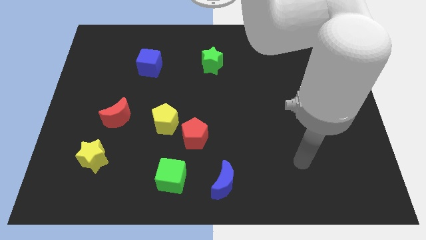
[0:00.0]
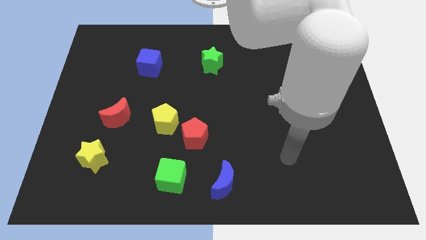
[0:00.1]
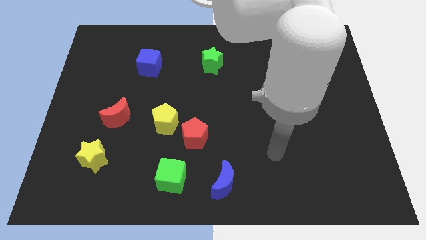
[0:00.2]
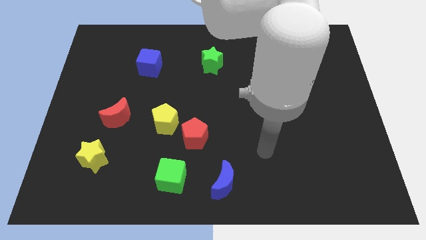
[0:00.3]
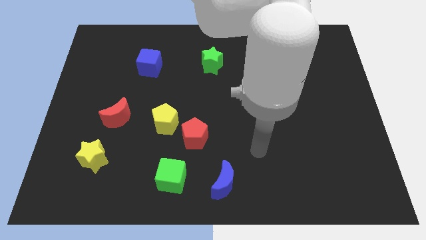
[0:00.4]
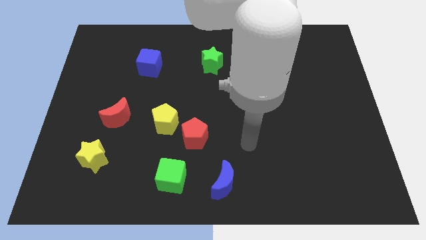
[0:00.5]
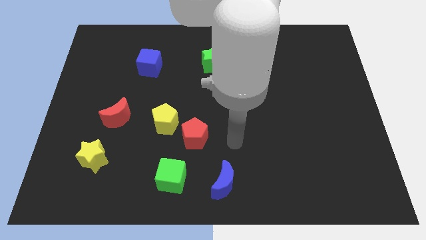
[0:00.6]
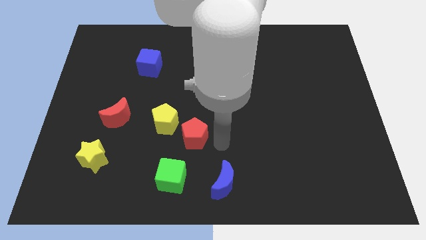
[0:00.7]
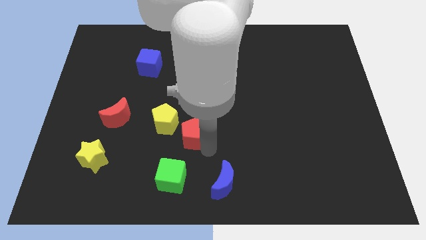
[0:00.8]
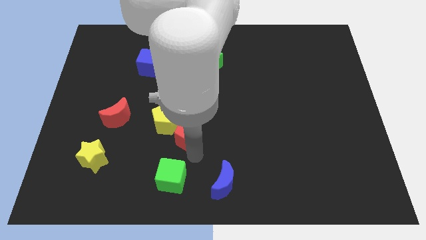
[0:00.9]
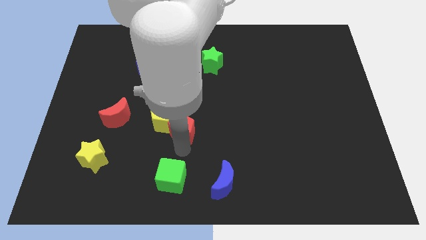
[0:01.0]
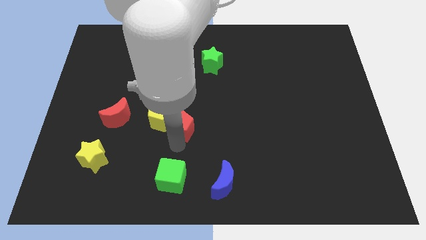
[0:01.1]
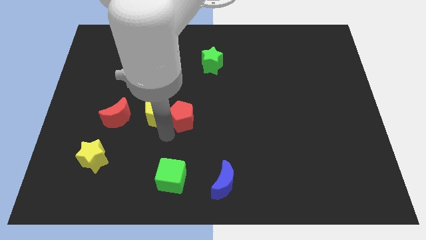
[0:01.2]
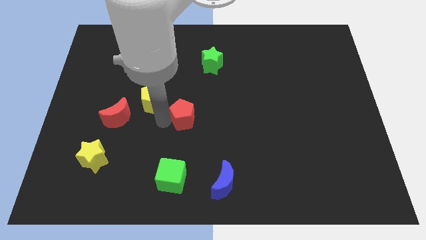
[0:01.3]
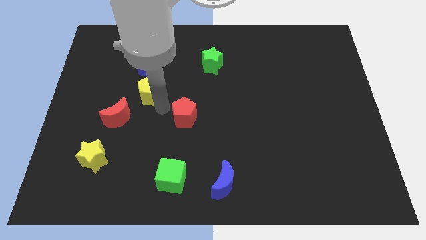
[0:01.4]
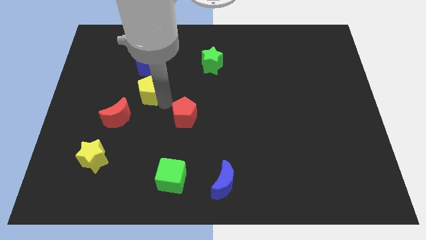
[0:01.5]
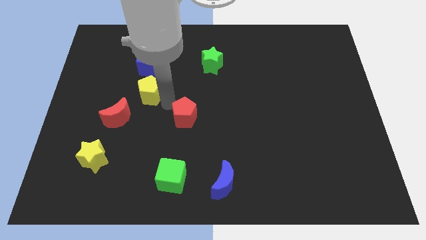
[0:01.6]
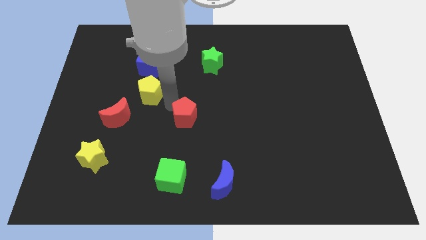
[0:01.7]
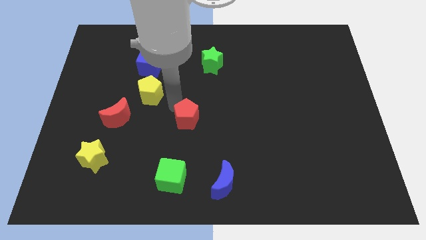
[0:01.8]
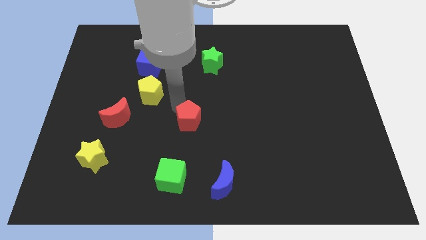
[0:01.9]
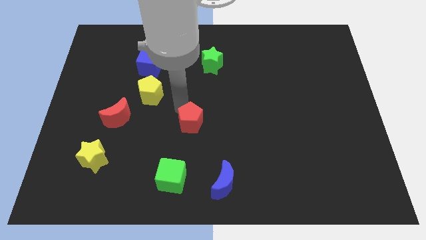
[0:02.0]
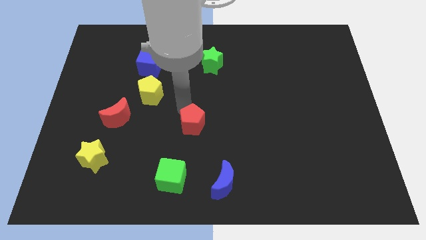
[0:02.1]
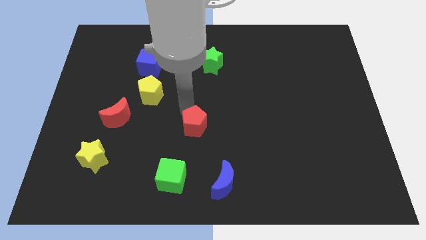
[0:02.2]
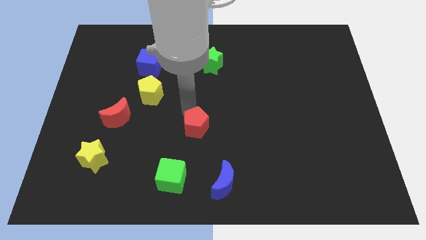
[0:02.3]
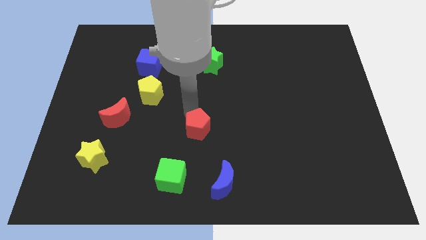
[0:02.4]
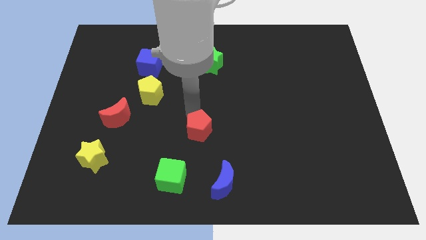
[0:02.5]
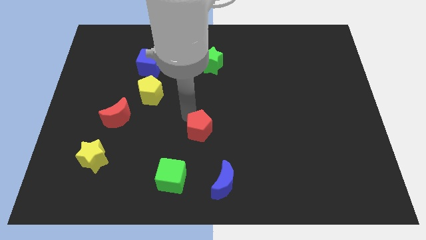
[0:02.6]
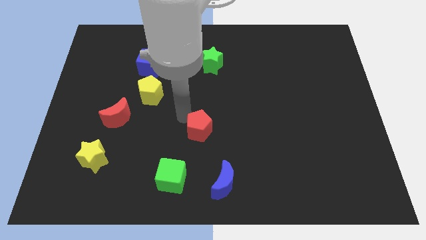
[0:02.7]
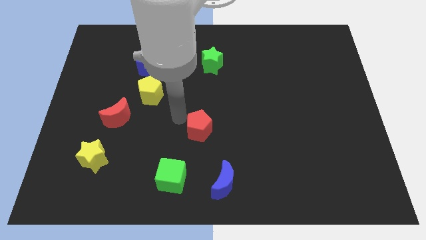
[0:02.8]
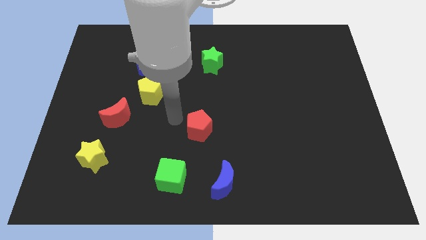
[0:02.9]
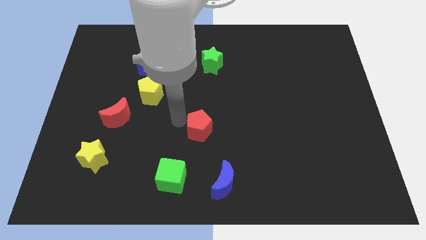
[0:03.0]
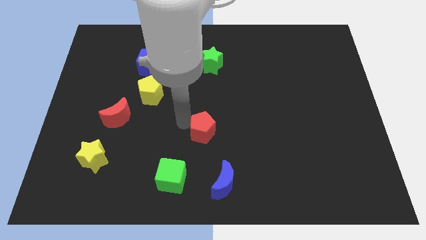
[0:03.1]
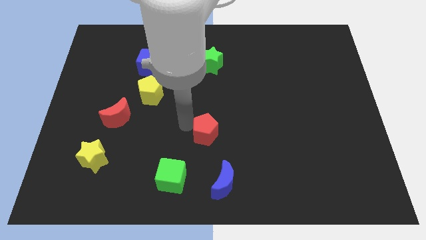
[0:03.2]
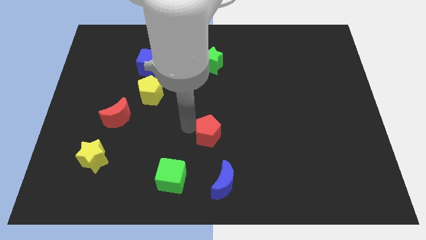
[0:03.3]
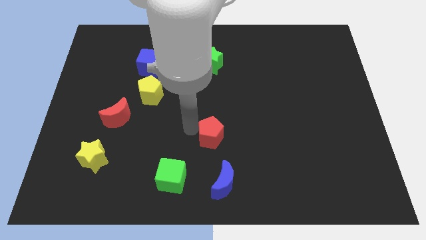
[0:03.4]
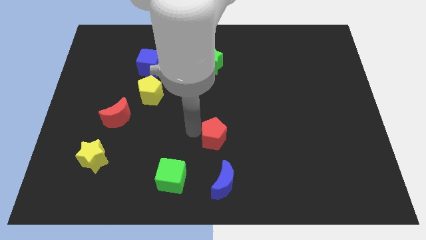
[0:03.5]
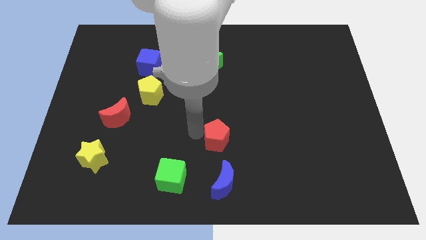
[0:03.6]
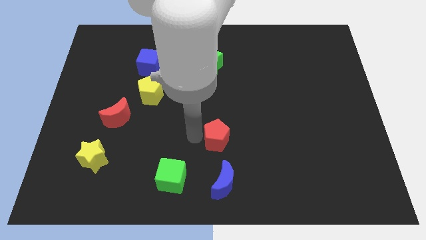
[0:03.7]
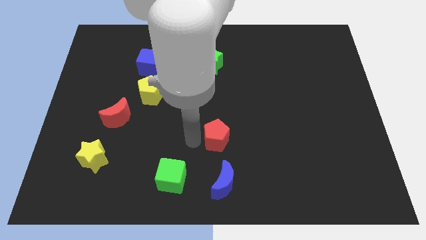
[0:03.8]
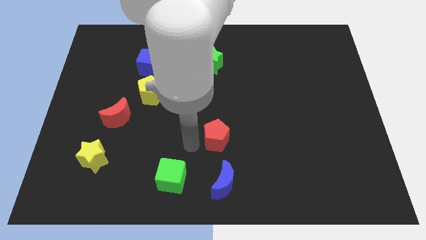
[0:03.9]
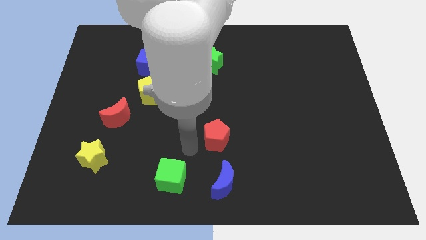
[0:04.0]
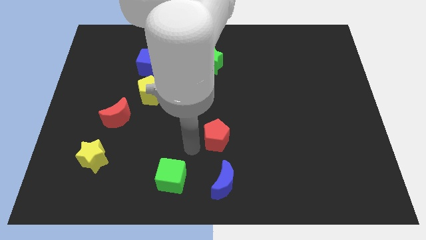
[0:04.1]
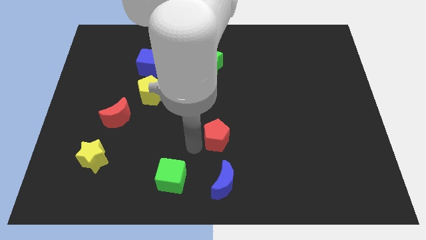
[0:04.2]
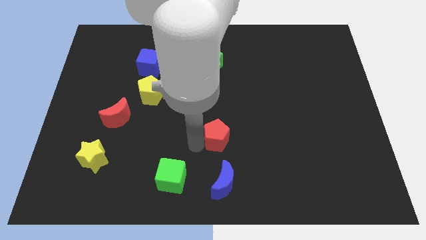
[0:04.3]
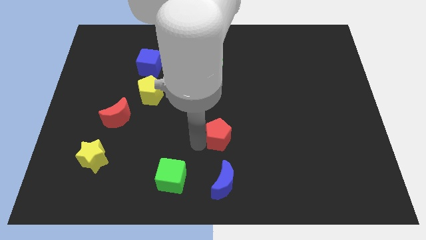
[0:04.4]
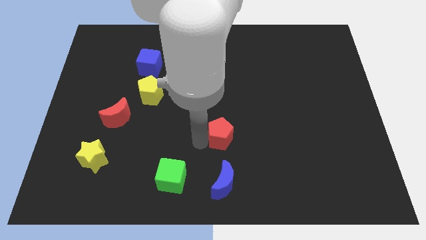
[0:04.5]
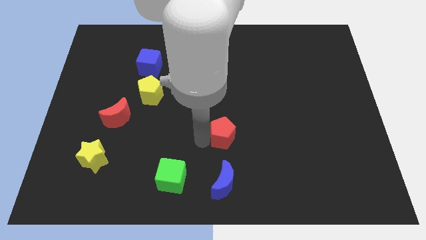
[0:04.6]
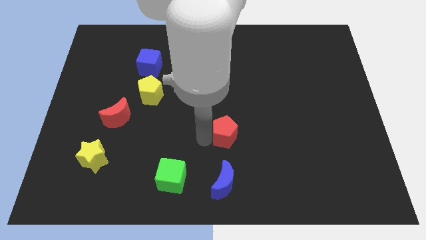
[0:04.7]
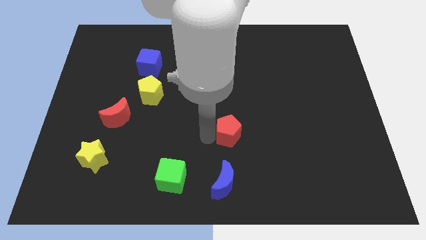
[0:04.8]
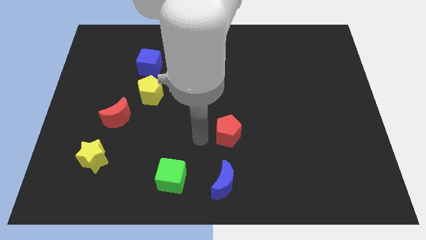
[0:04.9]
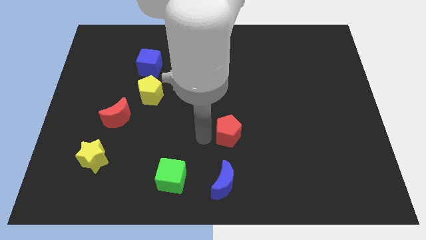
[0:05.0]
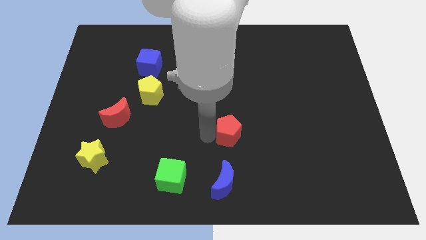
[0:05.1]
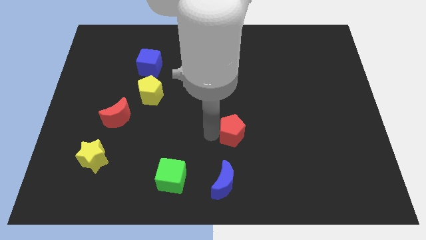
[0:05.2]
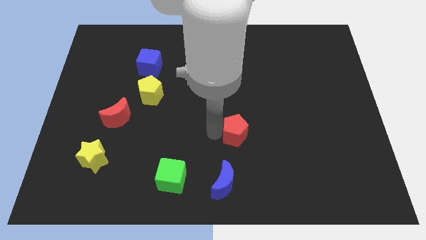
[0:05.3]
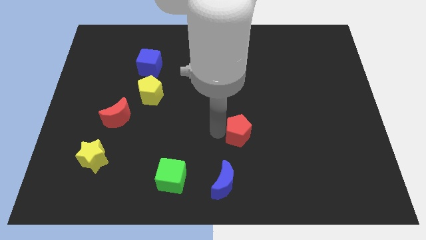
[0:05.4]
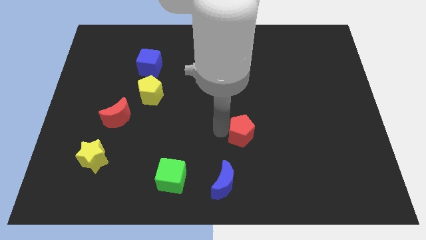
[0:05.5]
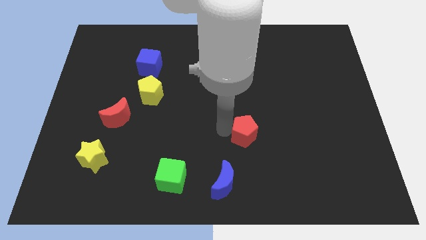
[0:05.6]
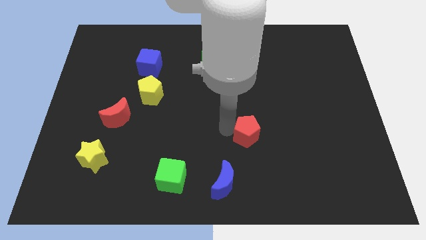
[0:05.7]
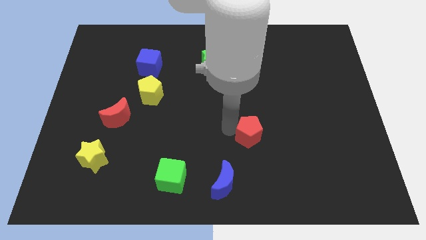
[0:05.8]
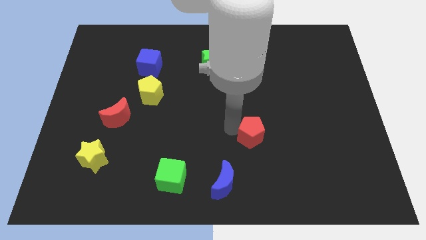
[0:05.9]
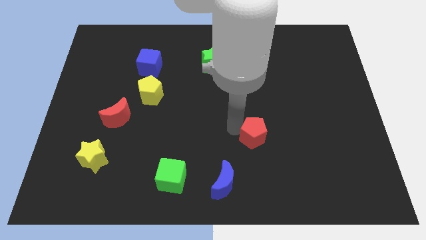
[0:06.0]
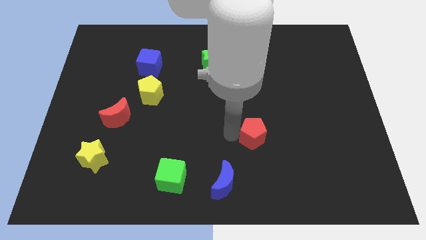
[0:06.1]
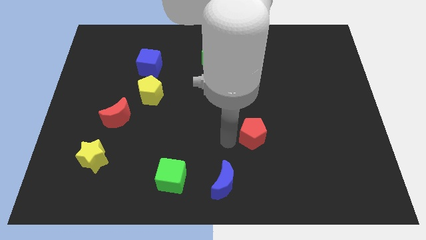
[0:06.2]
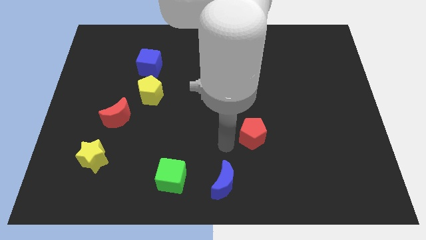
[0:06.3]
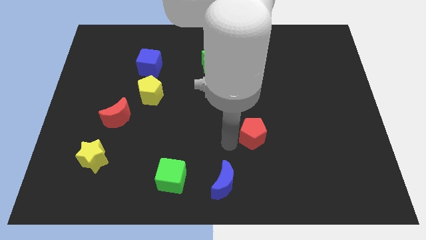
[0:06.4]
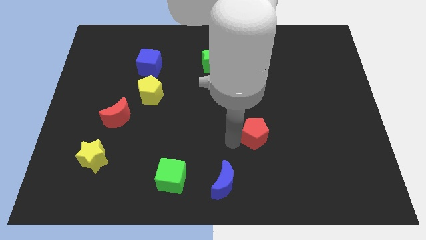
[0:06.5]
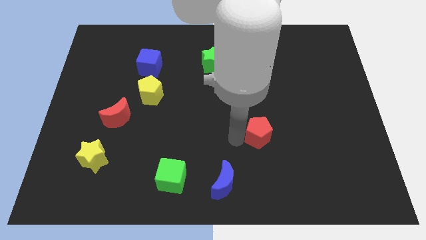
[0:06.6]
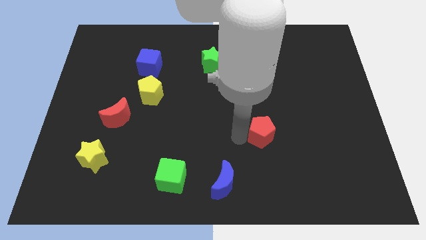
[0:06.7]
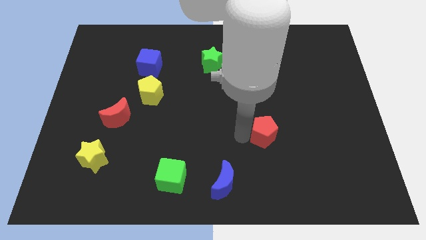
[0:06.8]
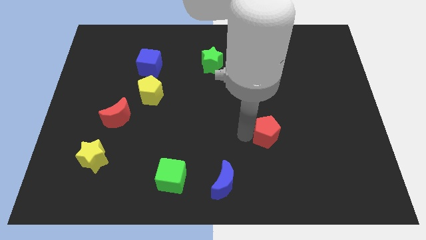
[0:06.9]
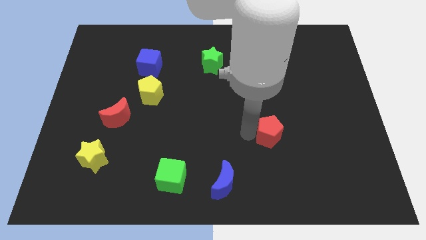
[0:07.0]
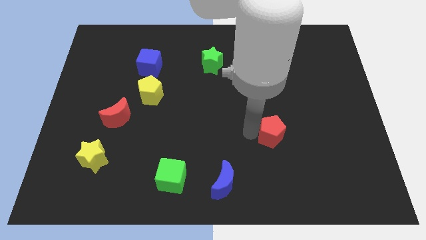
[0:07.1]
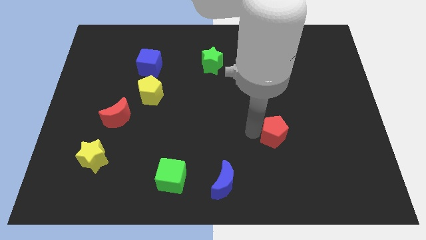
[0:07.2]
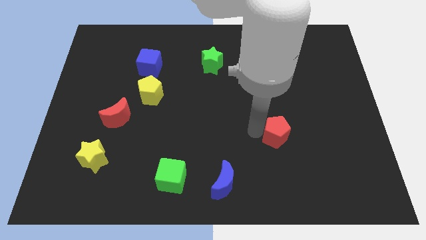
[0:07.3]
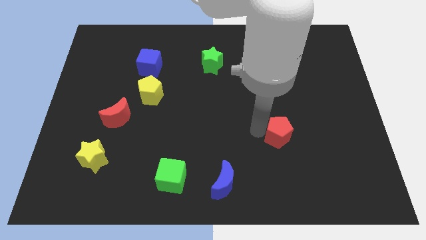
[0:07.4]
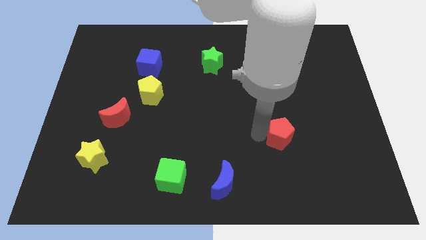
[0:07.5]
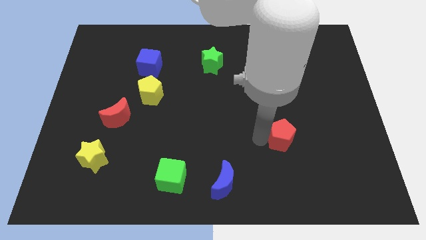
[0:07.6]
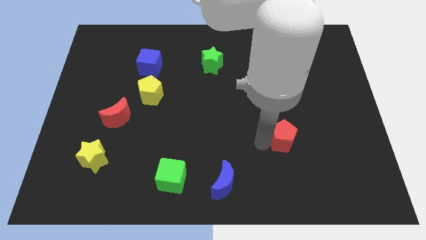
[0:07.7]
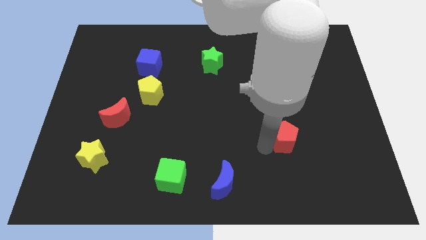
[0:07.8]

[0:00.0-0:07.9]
move the red pentagon right
